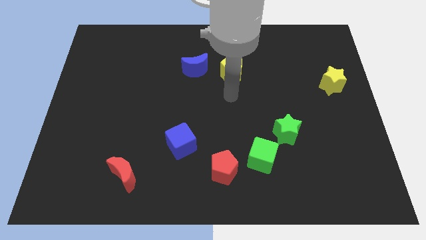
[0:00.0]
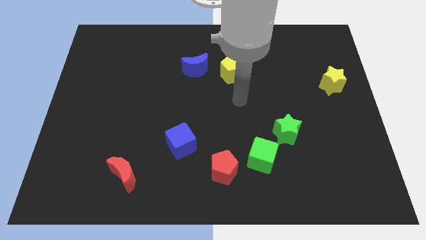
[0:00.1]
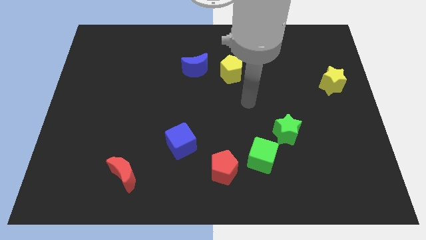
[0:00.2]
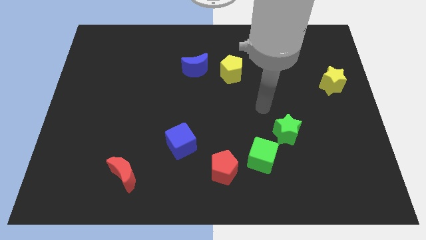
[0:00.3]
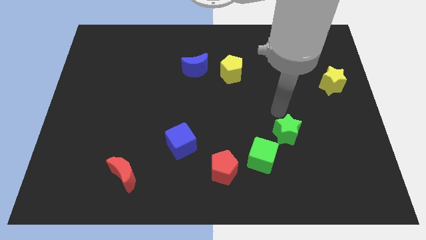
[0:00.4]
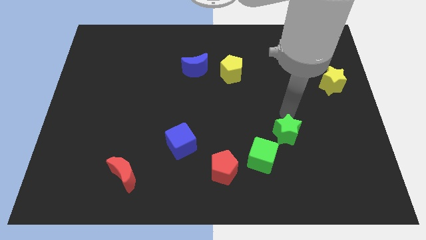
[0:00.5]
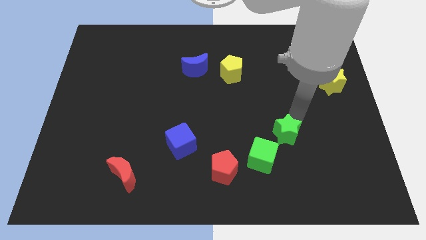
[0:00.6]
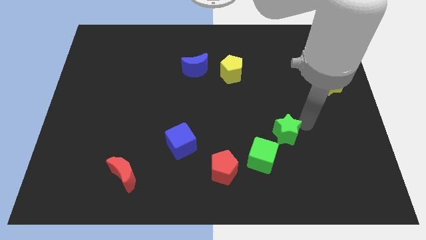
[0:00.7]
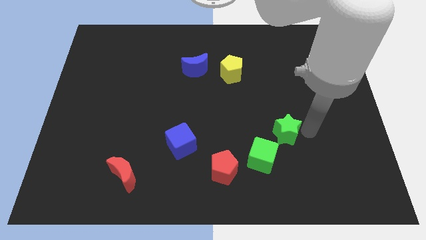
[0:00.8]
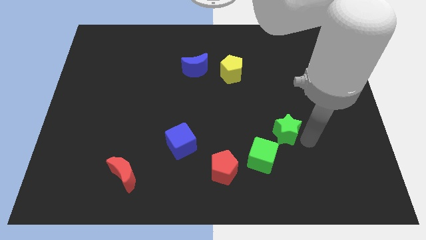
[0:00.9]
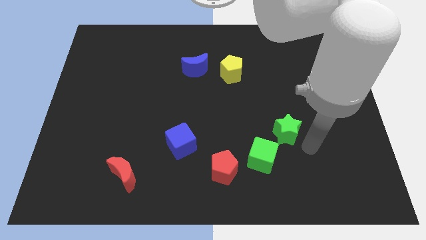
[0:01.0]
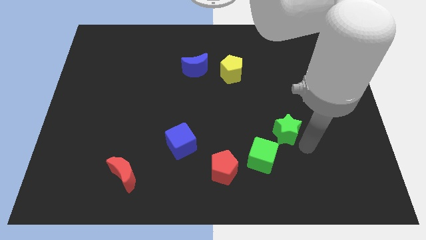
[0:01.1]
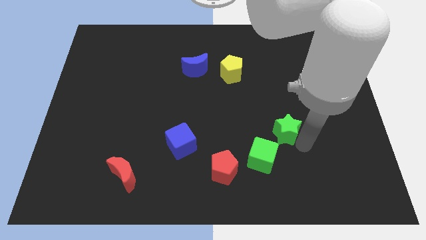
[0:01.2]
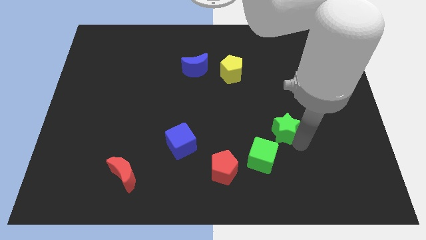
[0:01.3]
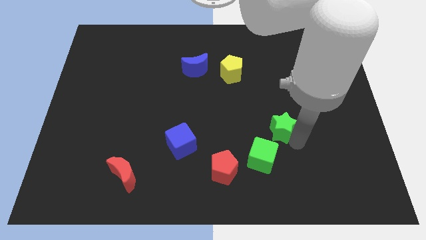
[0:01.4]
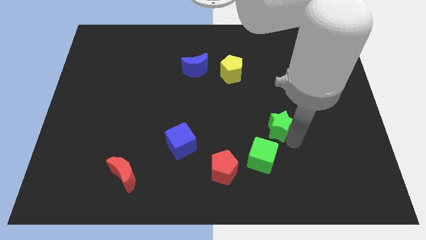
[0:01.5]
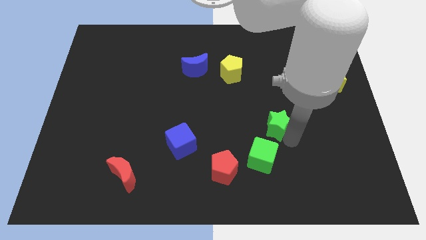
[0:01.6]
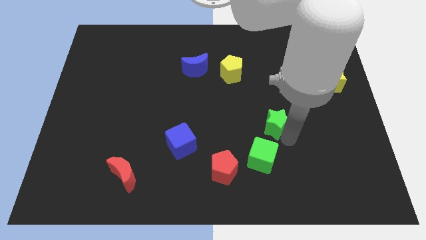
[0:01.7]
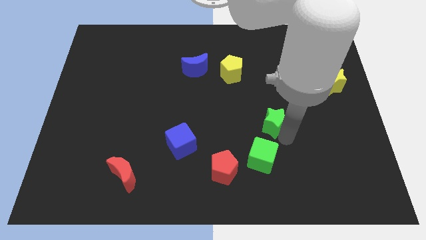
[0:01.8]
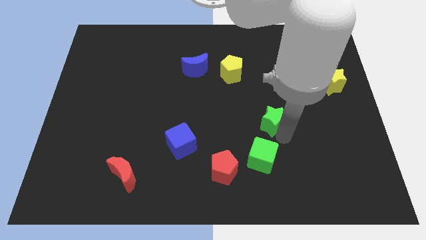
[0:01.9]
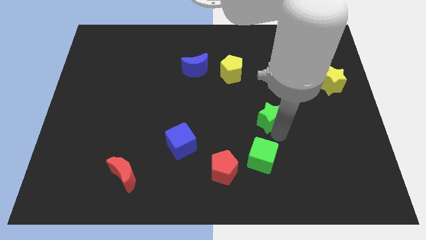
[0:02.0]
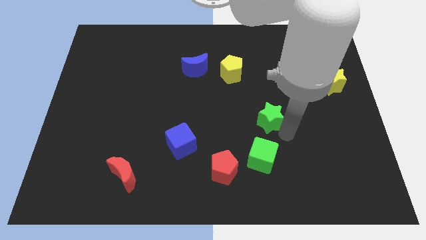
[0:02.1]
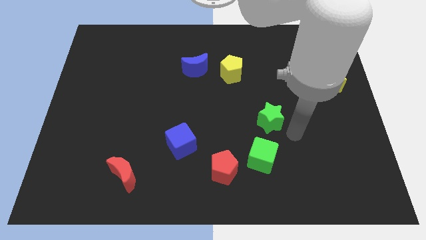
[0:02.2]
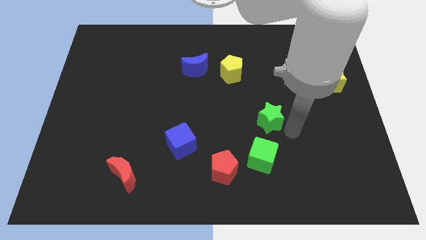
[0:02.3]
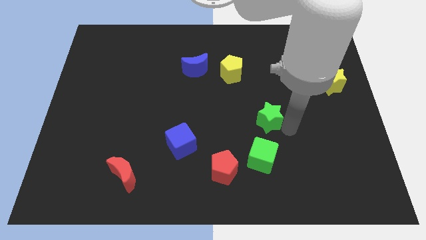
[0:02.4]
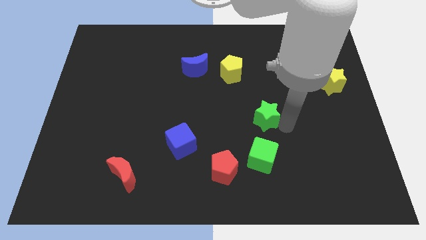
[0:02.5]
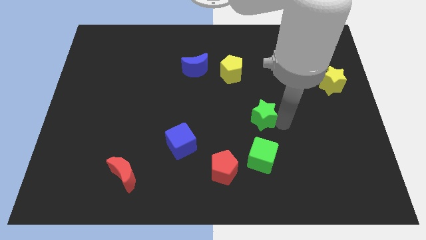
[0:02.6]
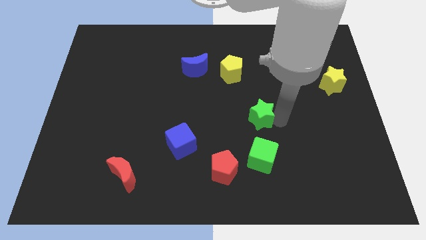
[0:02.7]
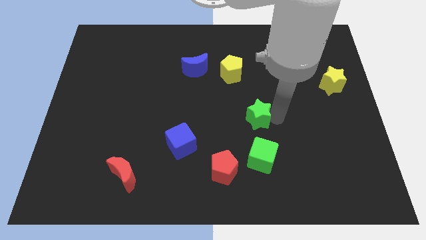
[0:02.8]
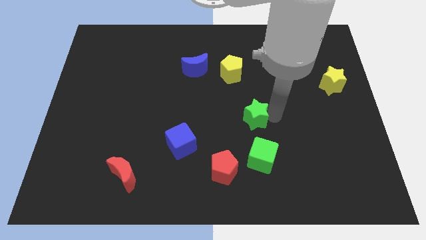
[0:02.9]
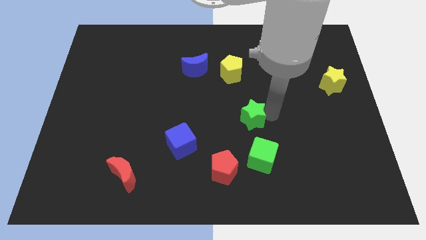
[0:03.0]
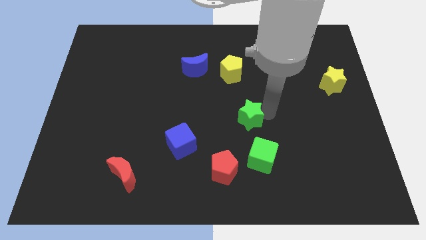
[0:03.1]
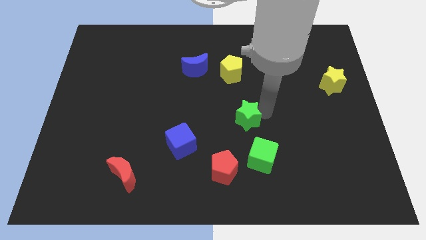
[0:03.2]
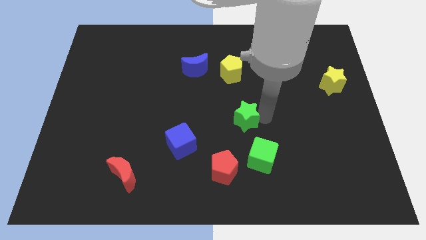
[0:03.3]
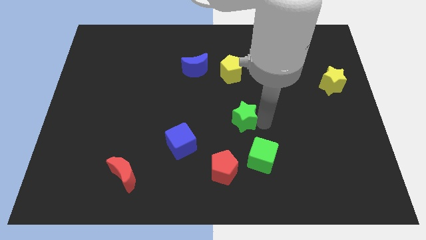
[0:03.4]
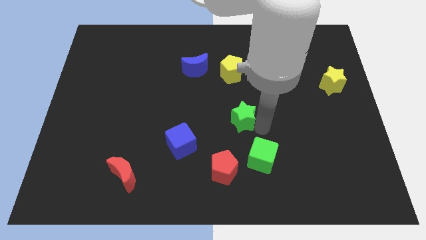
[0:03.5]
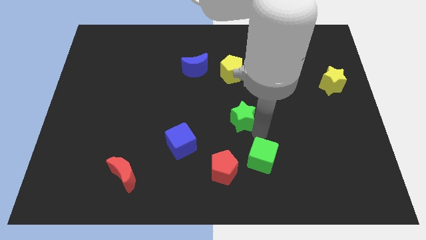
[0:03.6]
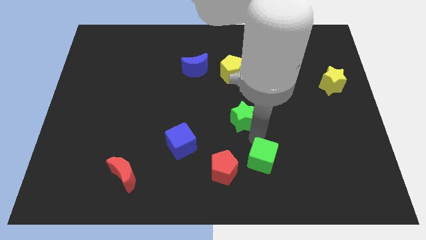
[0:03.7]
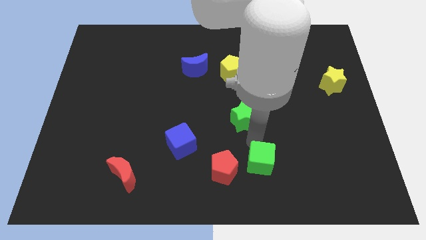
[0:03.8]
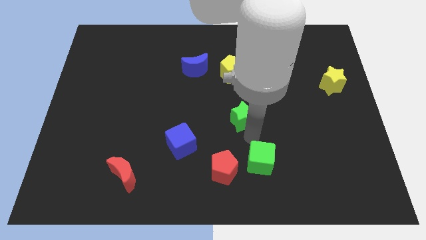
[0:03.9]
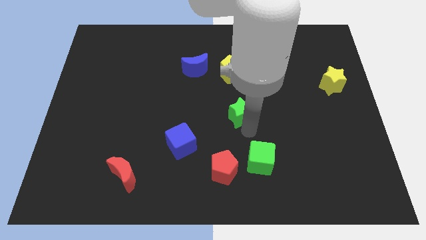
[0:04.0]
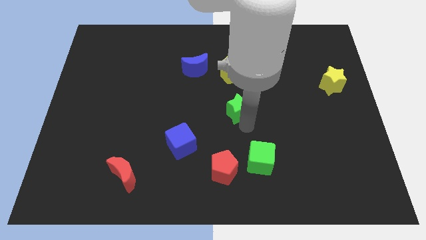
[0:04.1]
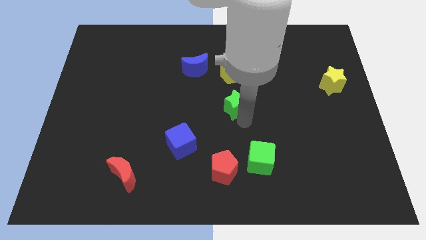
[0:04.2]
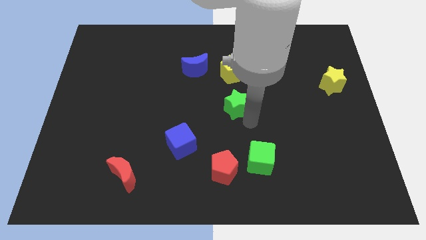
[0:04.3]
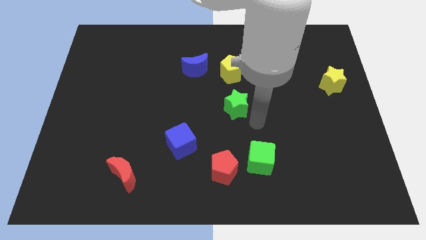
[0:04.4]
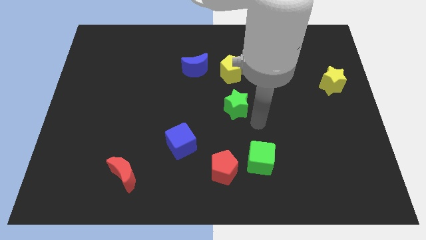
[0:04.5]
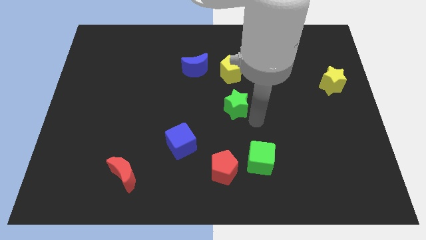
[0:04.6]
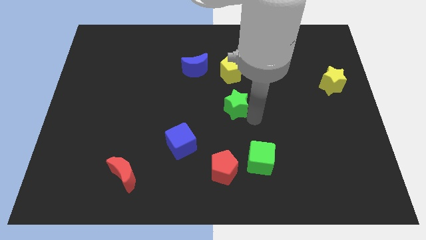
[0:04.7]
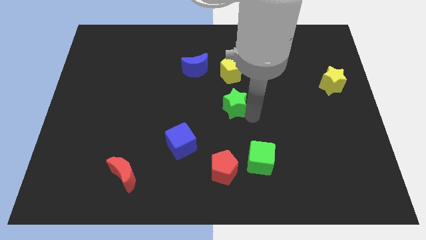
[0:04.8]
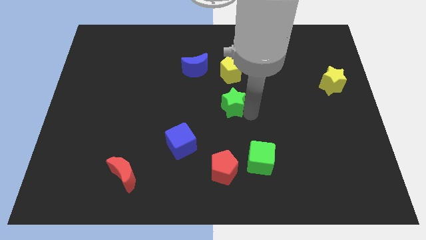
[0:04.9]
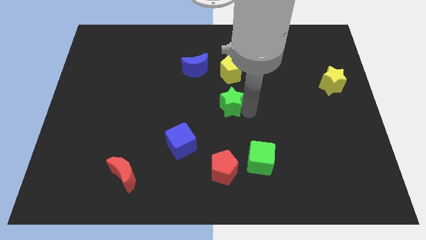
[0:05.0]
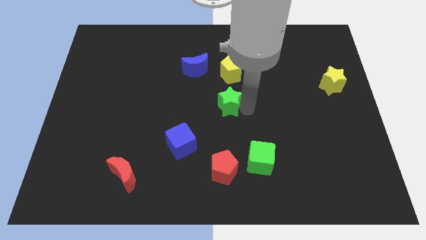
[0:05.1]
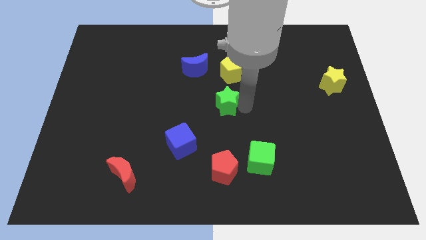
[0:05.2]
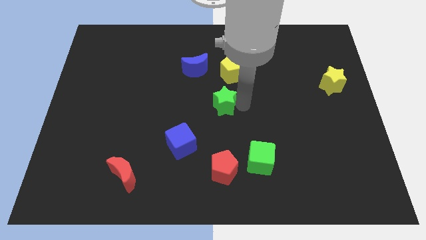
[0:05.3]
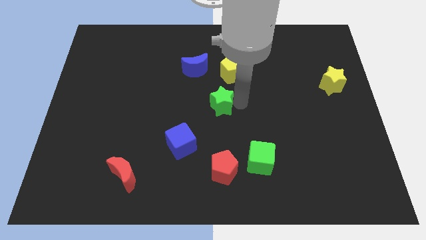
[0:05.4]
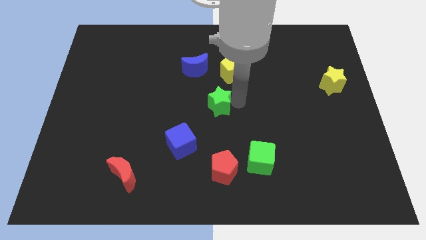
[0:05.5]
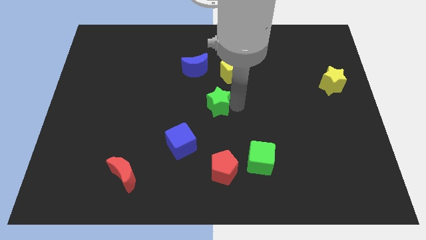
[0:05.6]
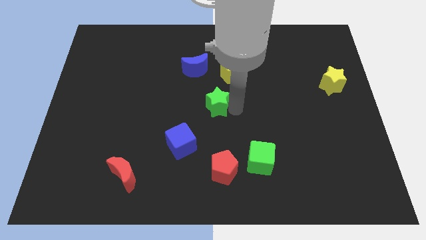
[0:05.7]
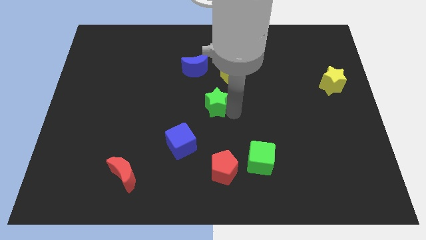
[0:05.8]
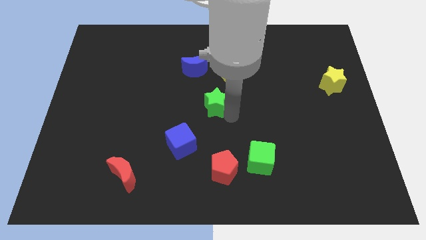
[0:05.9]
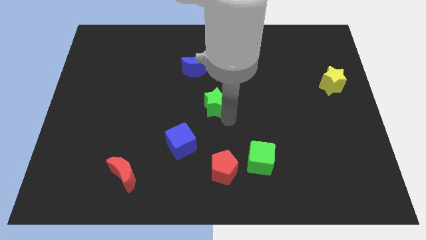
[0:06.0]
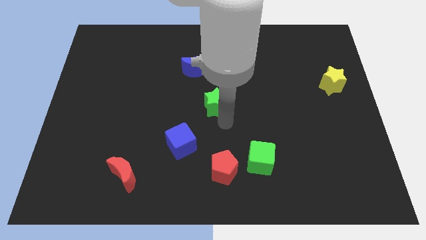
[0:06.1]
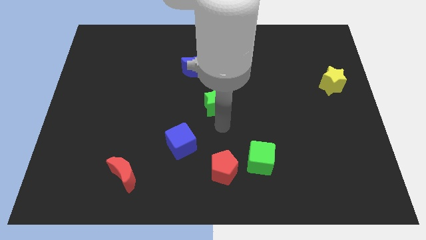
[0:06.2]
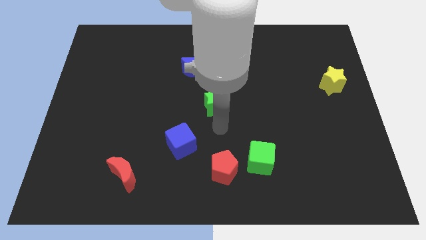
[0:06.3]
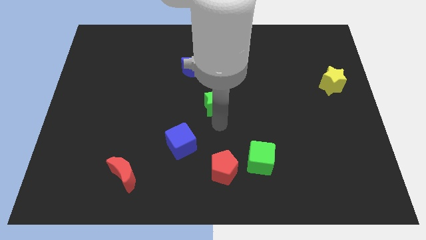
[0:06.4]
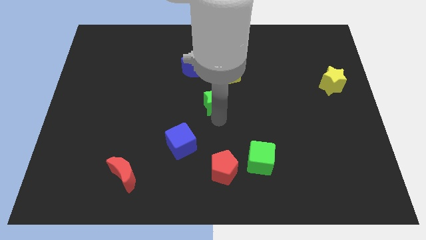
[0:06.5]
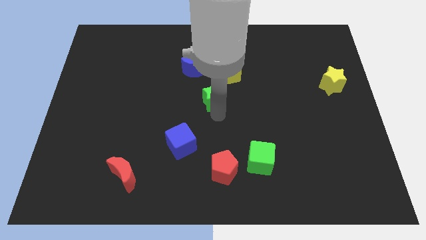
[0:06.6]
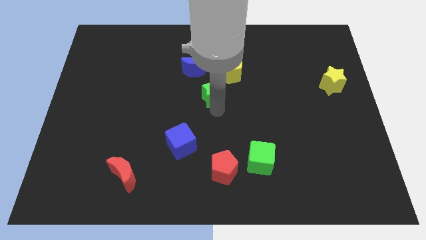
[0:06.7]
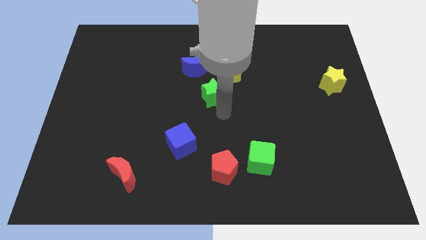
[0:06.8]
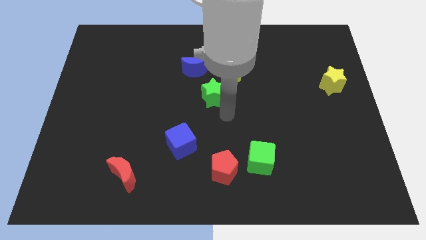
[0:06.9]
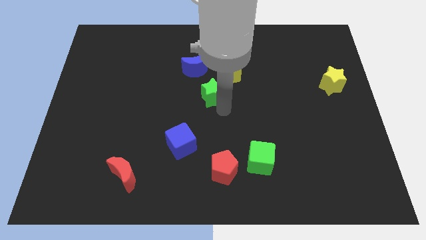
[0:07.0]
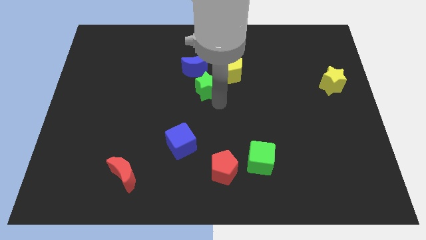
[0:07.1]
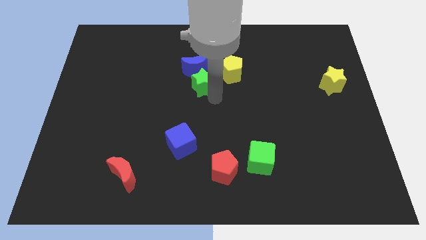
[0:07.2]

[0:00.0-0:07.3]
move the green star to the blue moon
